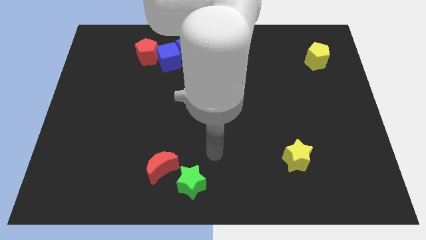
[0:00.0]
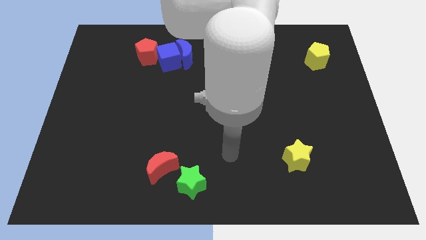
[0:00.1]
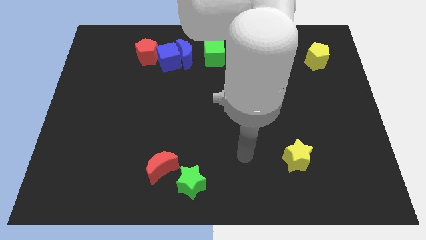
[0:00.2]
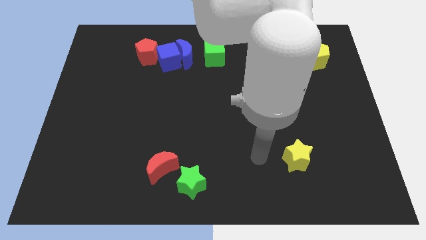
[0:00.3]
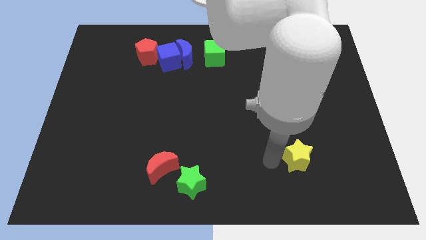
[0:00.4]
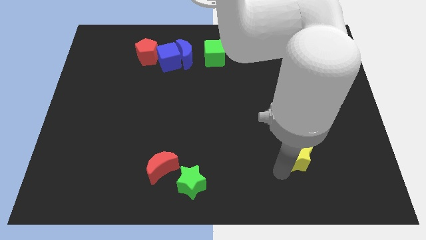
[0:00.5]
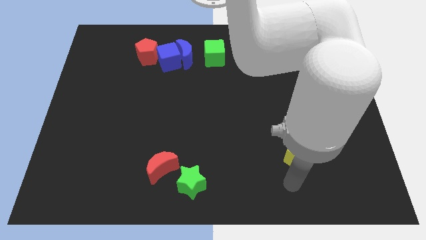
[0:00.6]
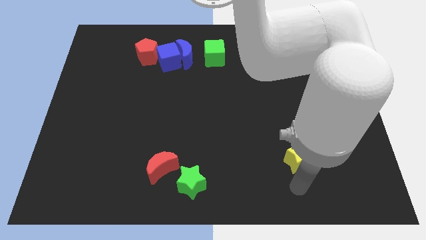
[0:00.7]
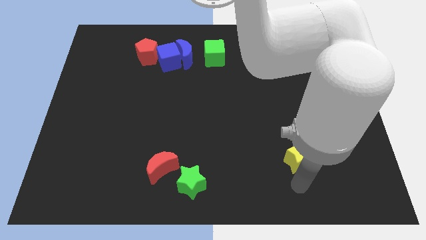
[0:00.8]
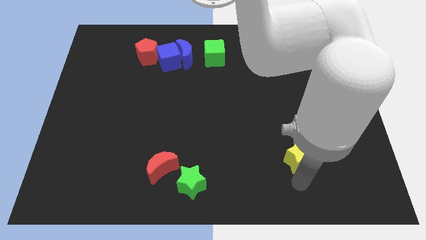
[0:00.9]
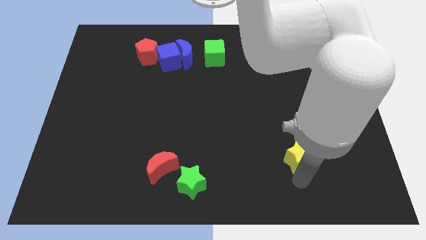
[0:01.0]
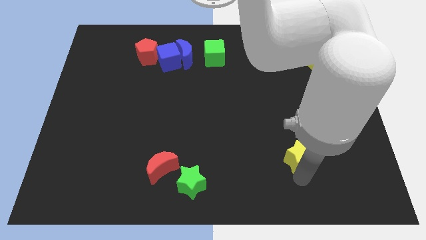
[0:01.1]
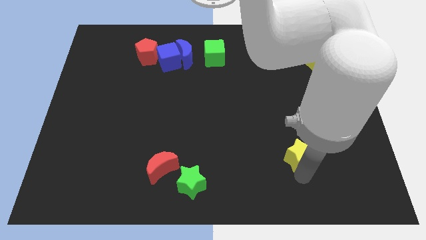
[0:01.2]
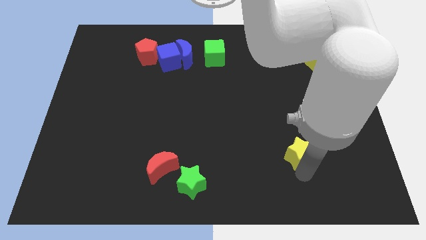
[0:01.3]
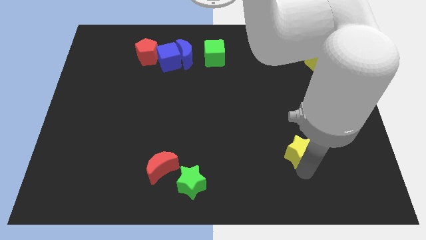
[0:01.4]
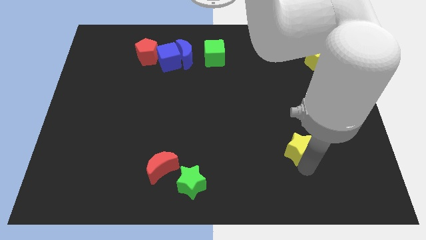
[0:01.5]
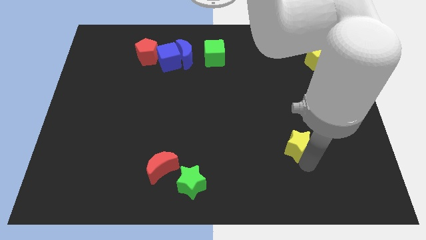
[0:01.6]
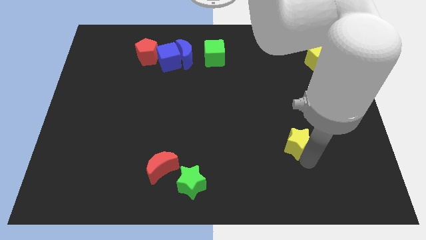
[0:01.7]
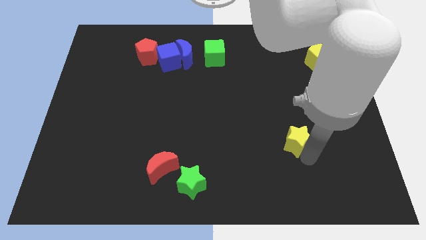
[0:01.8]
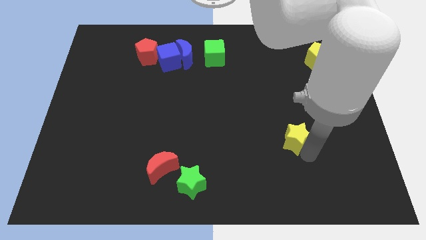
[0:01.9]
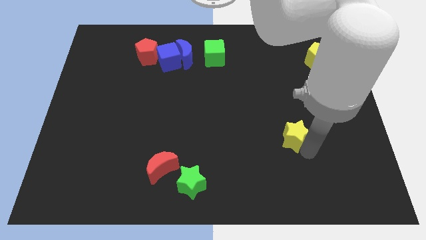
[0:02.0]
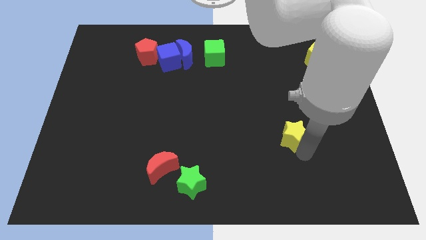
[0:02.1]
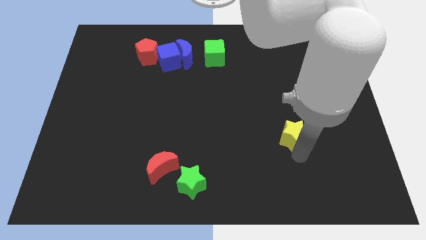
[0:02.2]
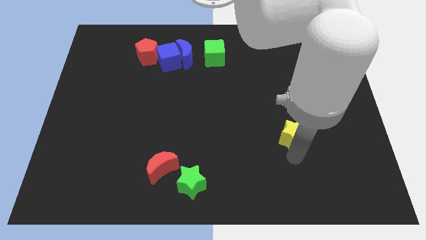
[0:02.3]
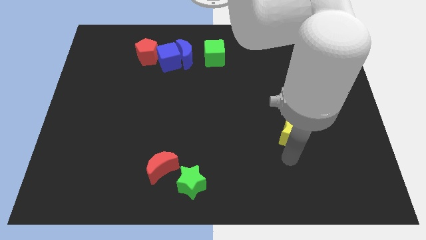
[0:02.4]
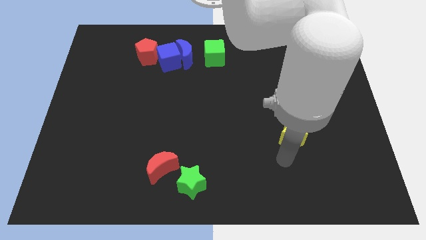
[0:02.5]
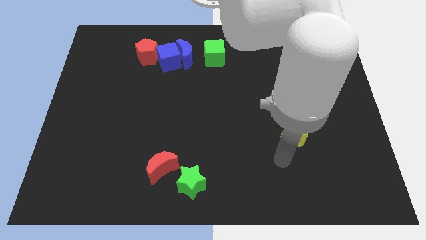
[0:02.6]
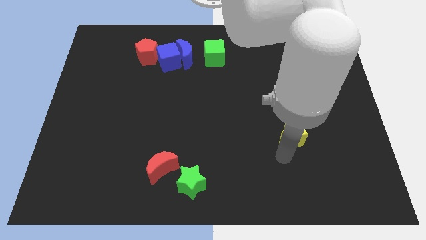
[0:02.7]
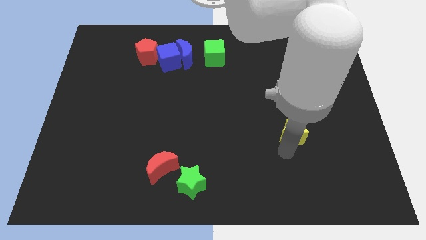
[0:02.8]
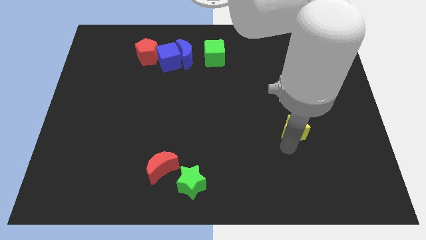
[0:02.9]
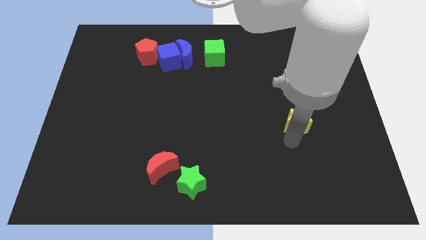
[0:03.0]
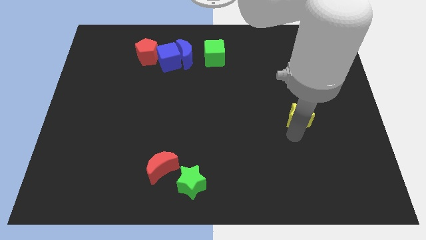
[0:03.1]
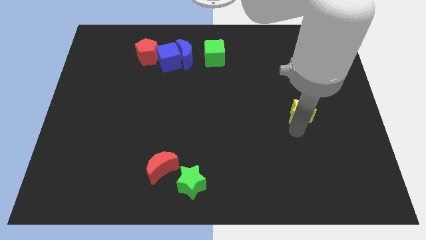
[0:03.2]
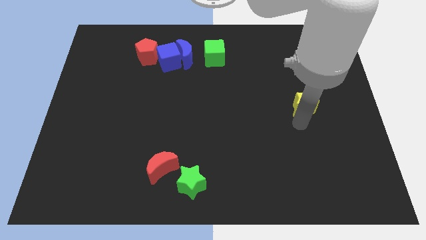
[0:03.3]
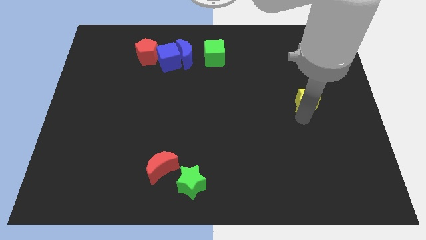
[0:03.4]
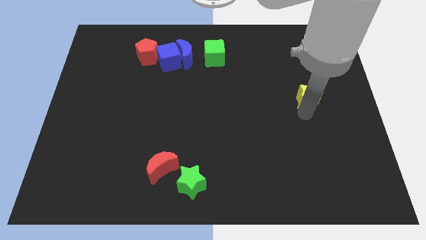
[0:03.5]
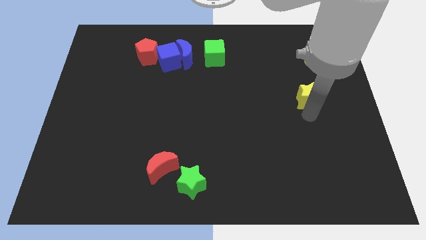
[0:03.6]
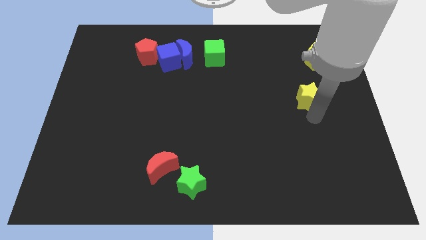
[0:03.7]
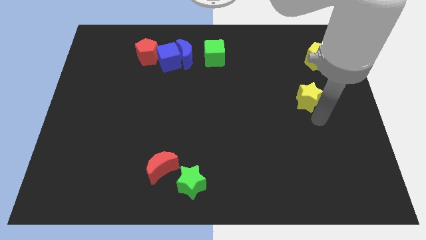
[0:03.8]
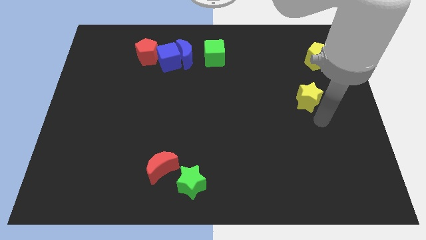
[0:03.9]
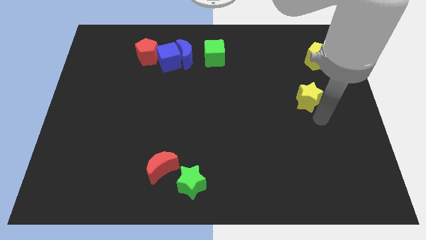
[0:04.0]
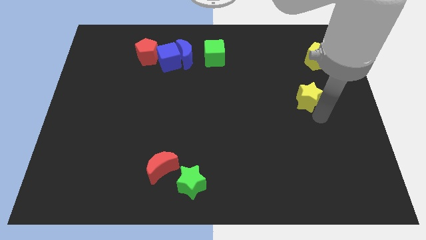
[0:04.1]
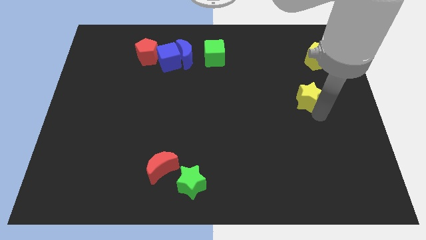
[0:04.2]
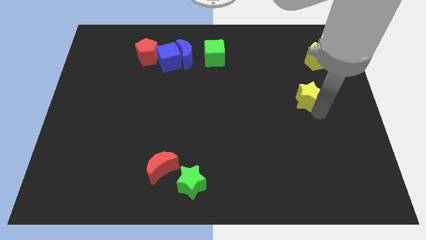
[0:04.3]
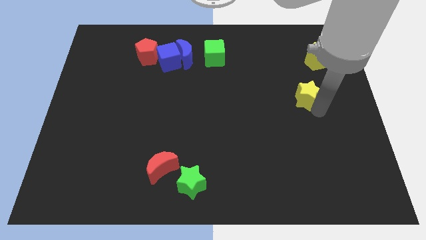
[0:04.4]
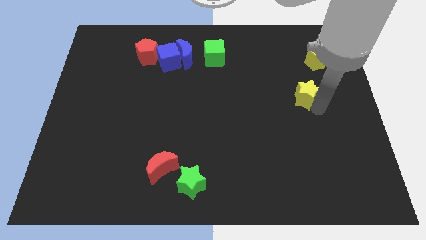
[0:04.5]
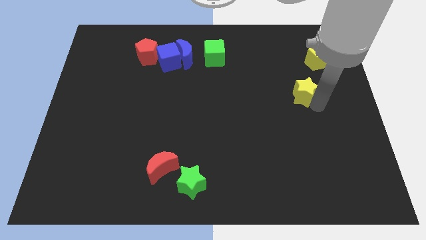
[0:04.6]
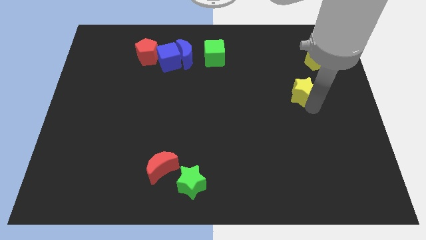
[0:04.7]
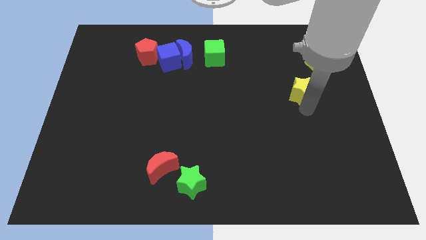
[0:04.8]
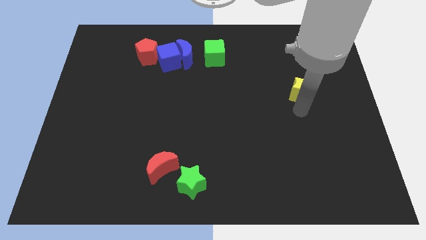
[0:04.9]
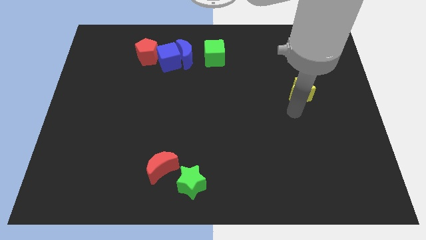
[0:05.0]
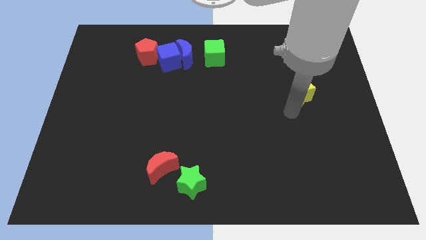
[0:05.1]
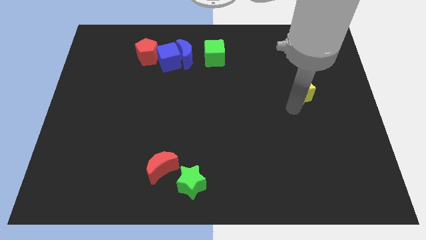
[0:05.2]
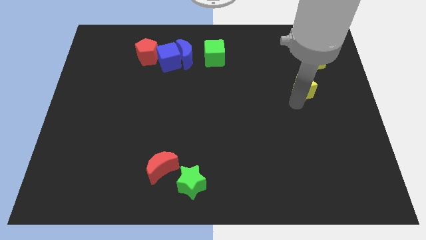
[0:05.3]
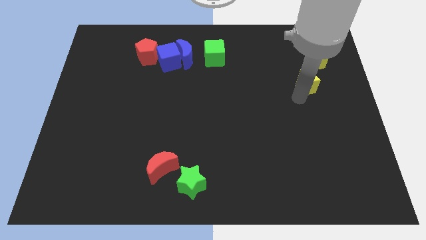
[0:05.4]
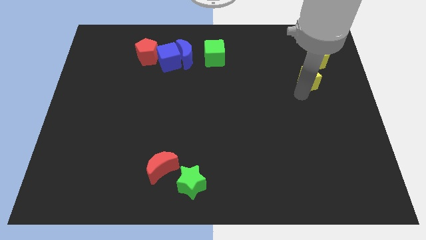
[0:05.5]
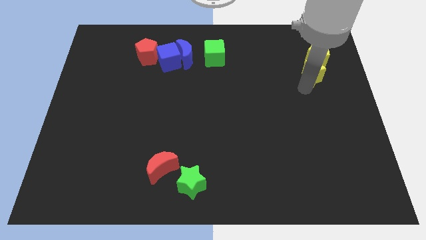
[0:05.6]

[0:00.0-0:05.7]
move the yellow star close to the yellow pentagon

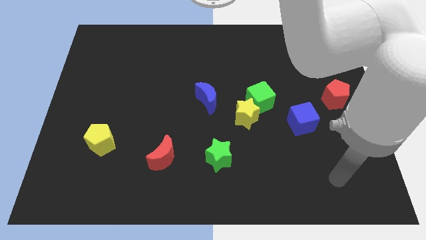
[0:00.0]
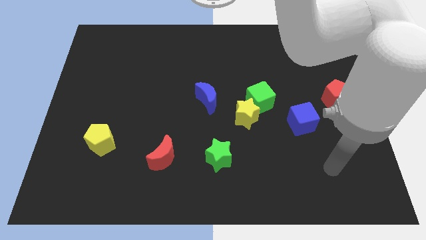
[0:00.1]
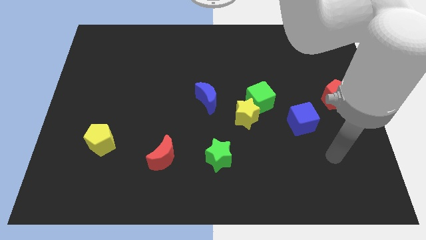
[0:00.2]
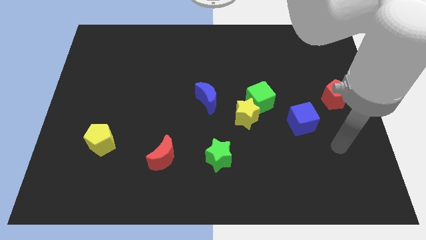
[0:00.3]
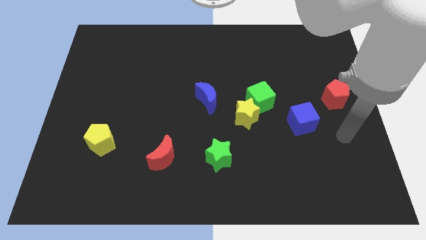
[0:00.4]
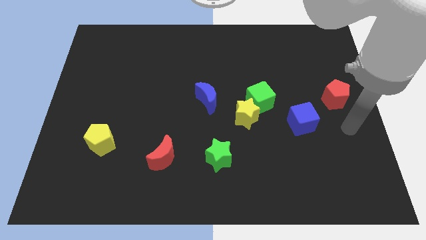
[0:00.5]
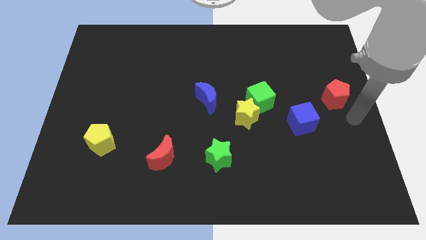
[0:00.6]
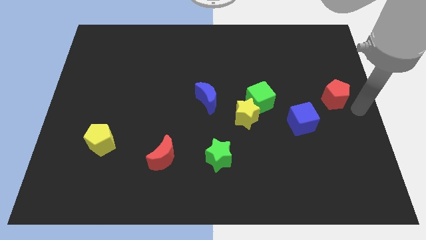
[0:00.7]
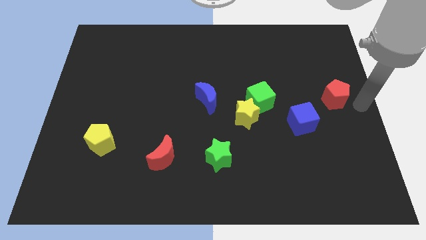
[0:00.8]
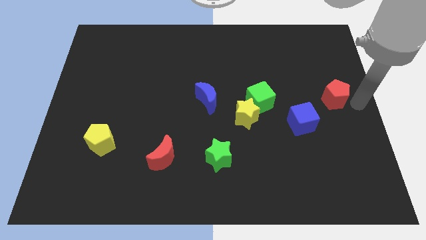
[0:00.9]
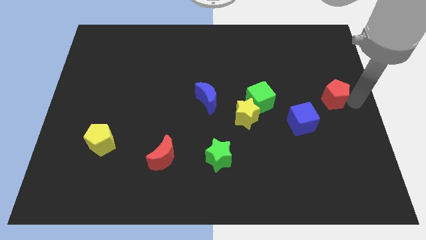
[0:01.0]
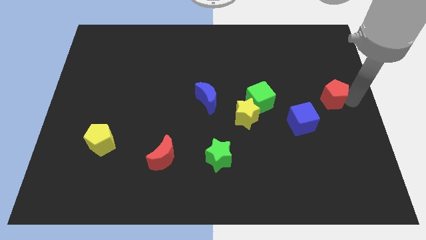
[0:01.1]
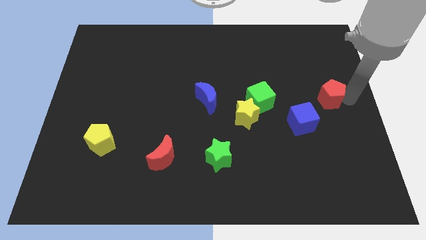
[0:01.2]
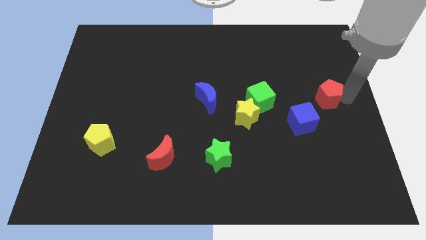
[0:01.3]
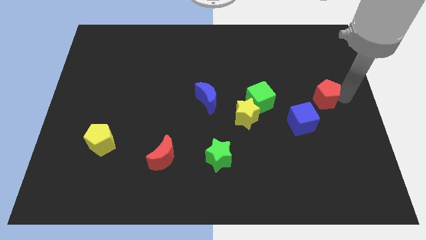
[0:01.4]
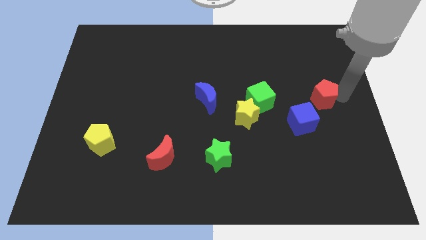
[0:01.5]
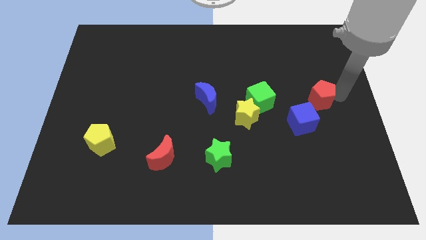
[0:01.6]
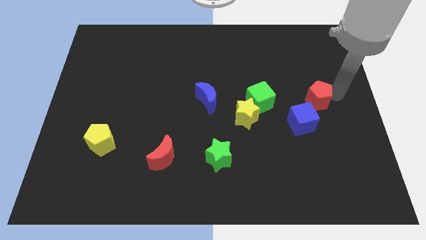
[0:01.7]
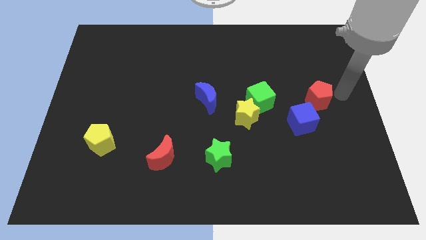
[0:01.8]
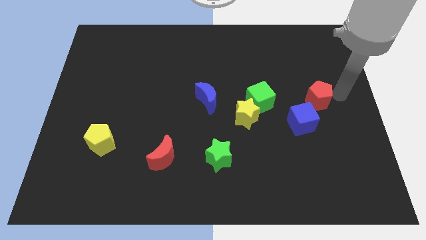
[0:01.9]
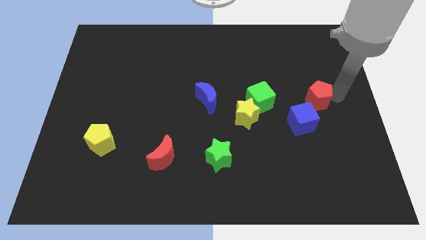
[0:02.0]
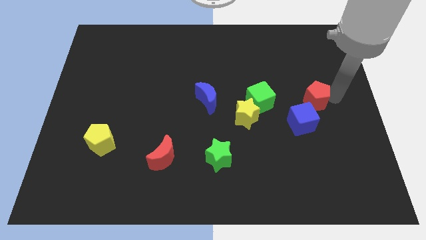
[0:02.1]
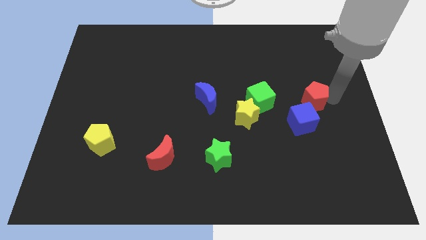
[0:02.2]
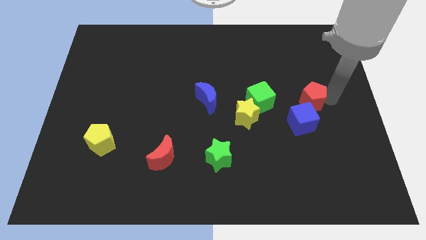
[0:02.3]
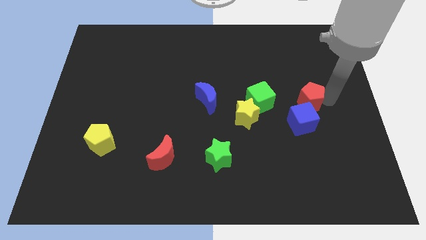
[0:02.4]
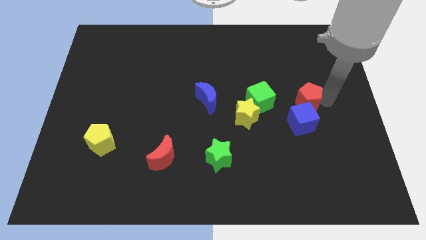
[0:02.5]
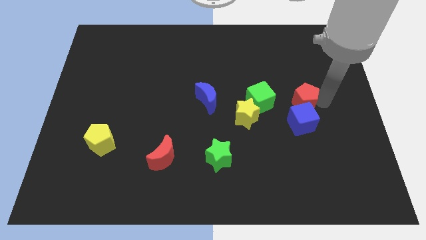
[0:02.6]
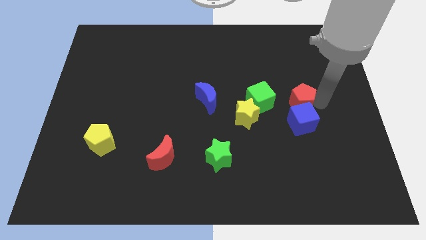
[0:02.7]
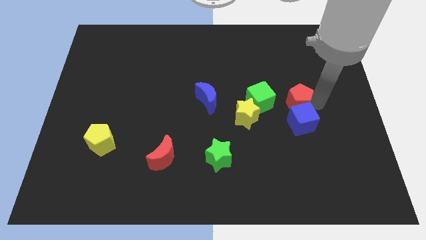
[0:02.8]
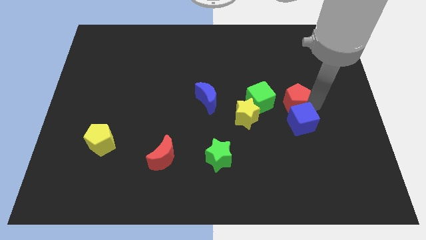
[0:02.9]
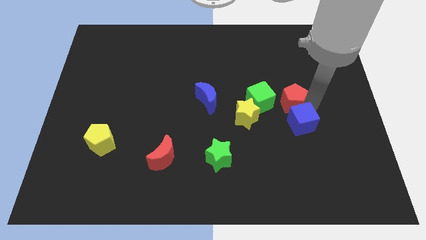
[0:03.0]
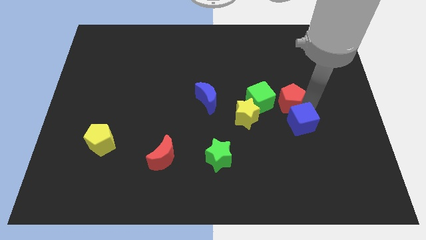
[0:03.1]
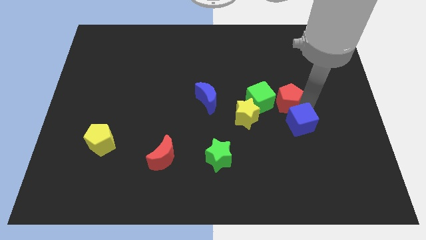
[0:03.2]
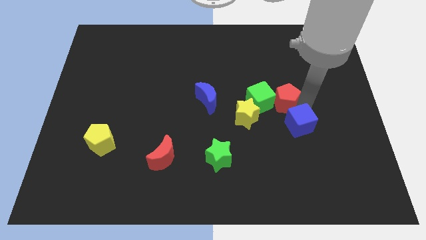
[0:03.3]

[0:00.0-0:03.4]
put the red pentagon next to the green cube
